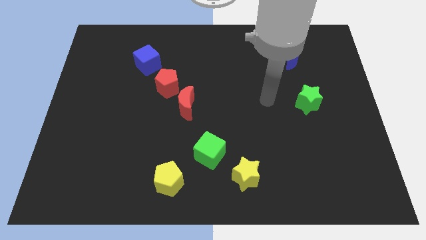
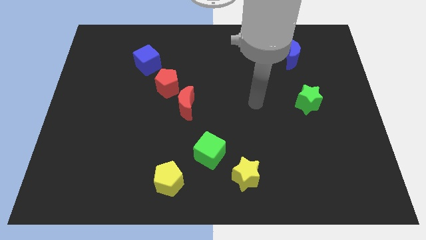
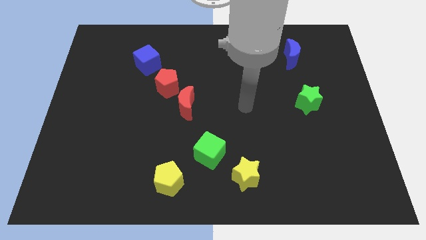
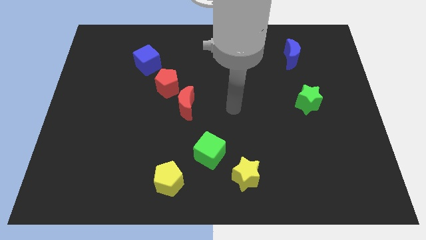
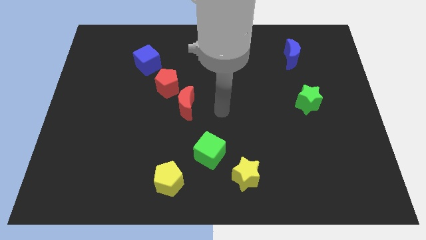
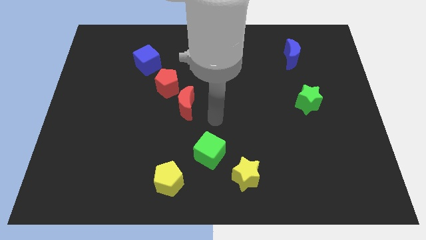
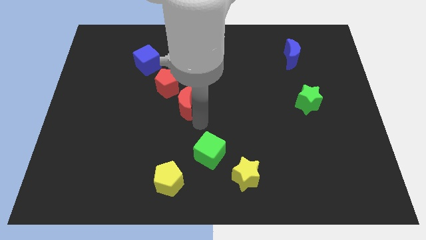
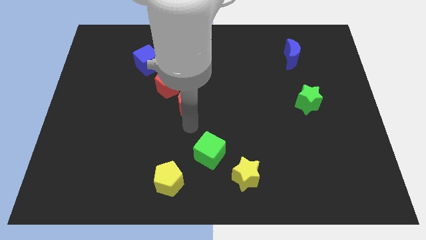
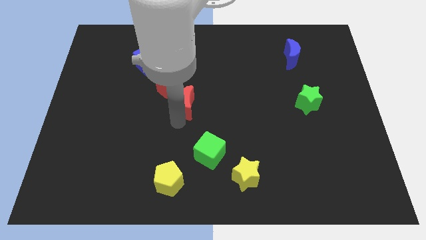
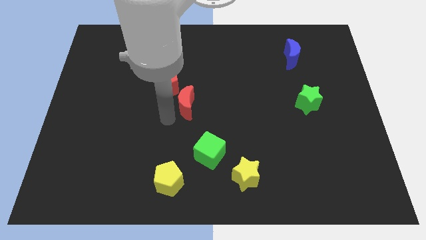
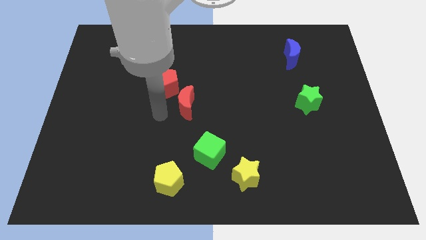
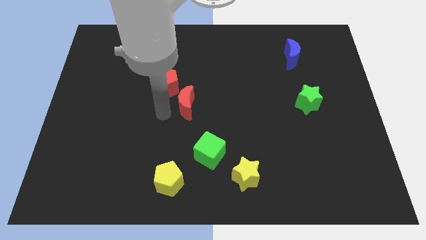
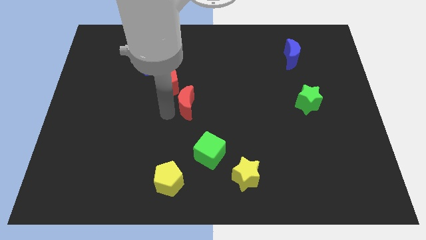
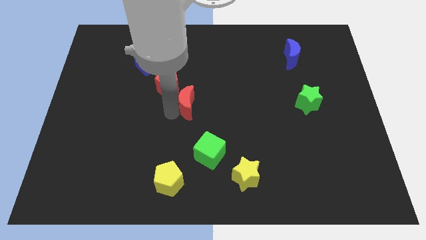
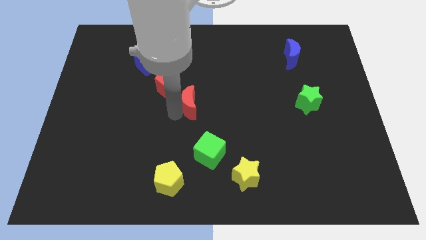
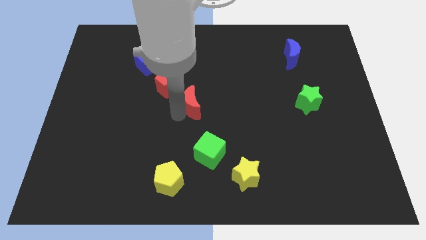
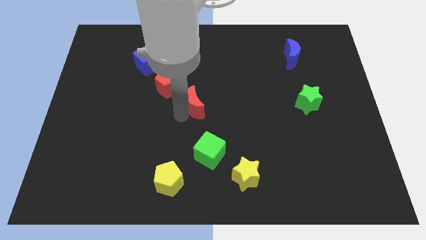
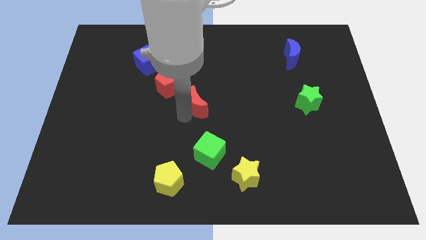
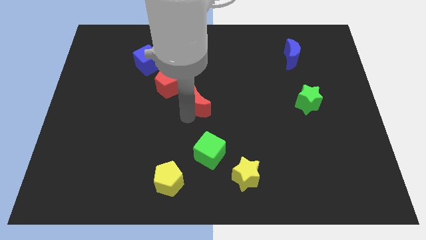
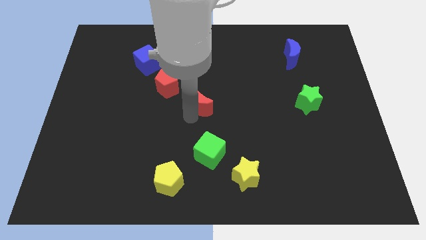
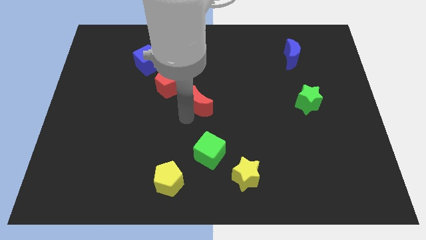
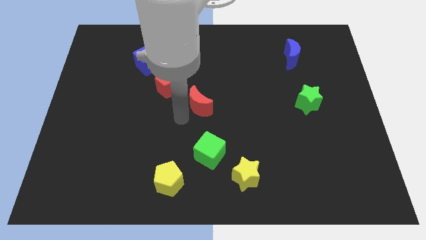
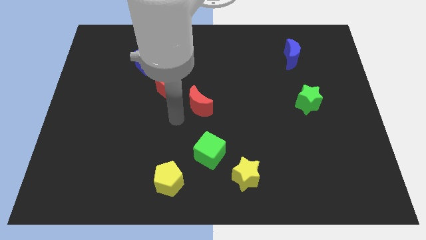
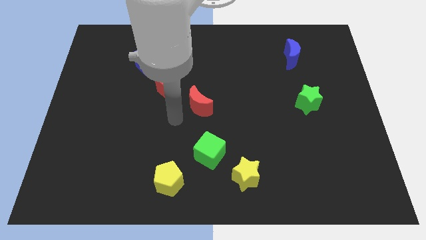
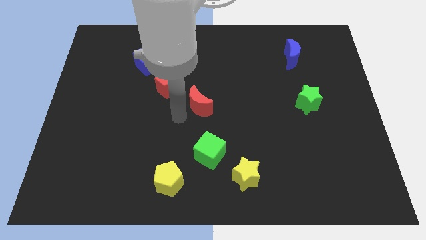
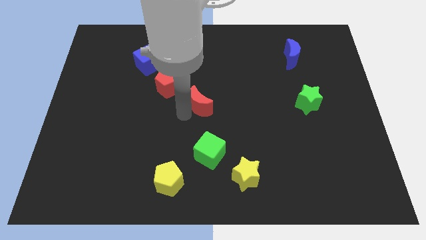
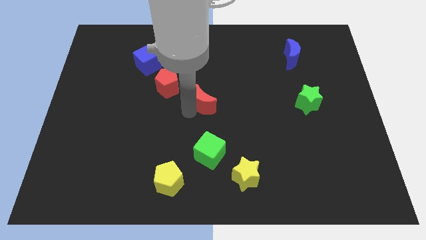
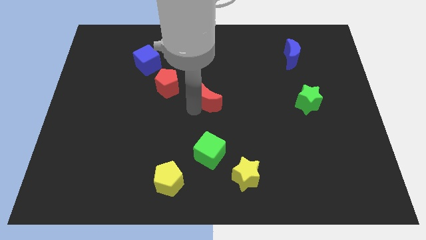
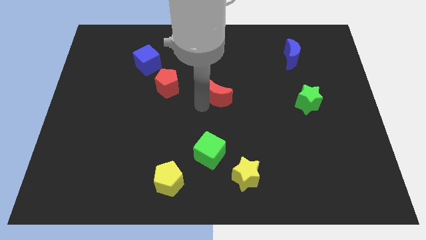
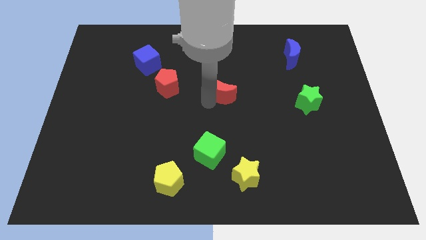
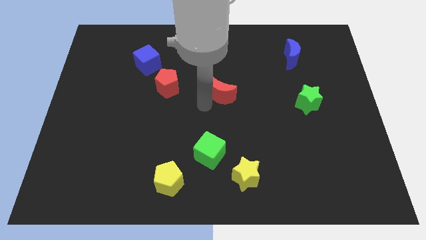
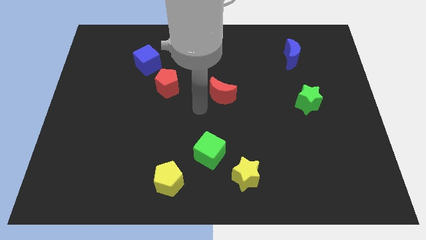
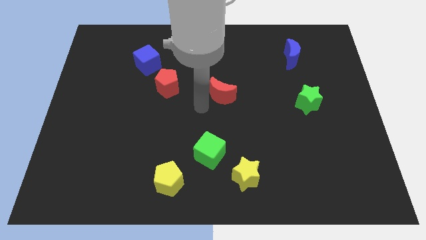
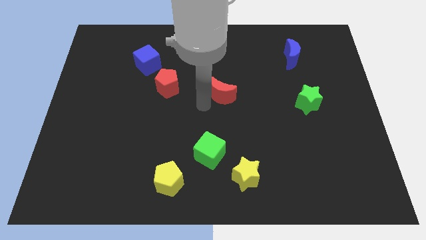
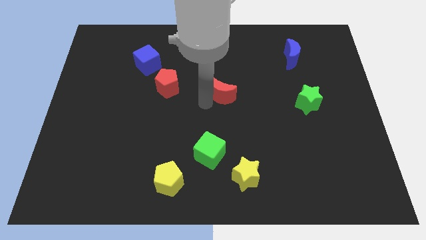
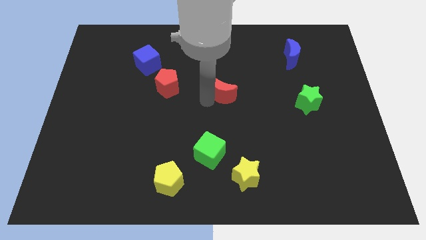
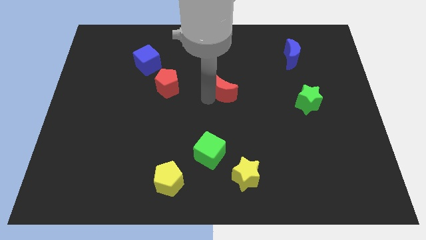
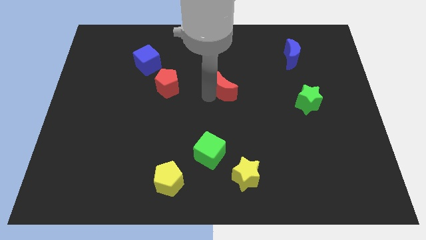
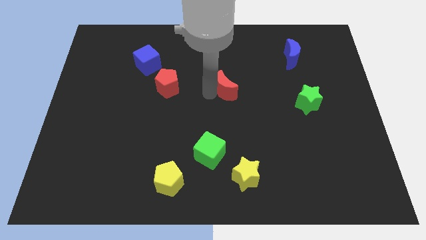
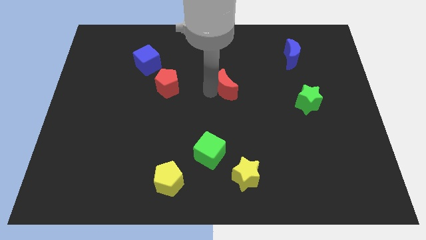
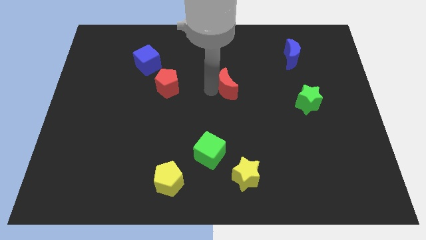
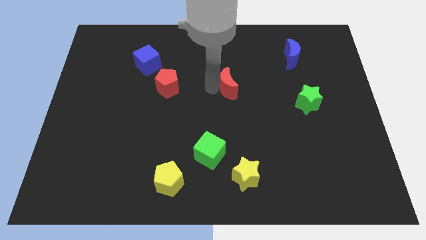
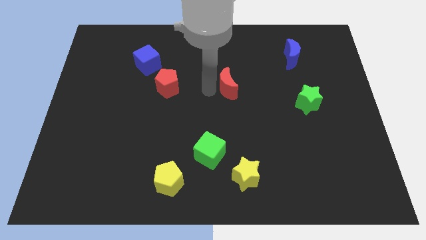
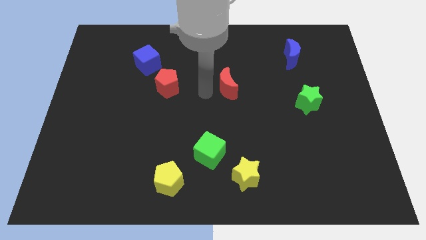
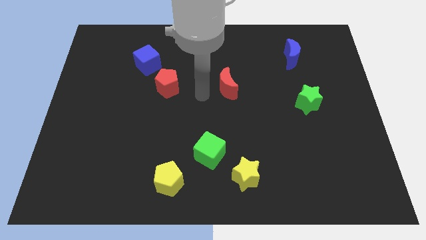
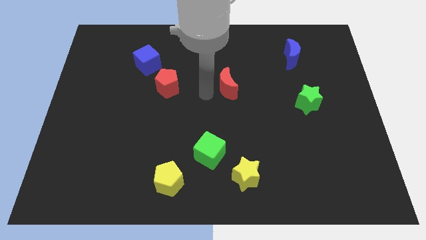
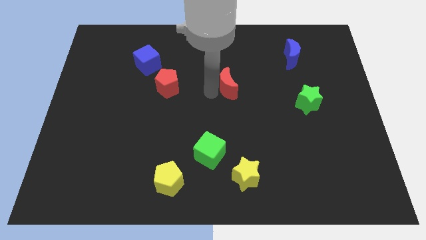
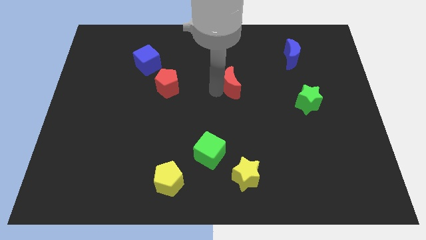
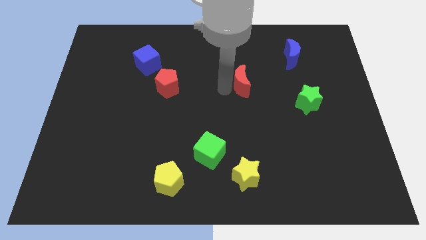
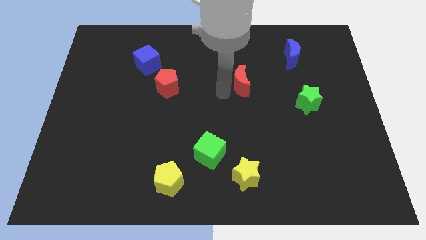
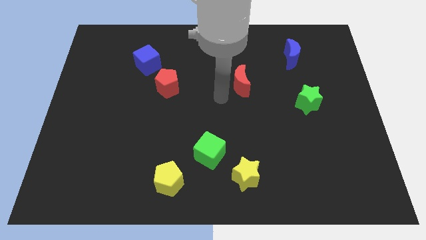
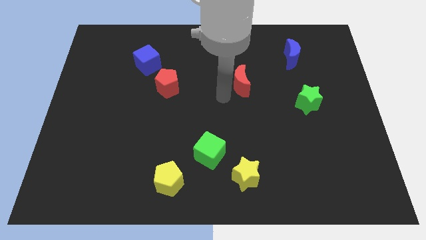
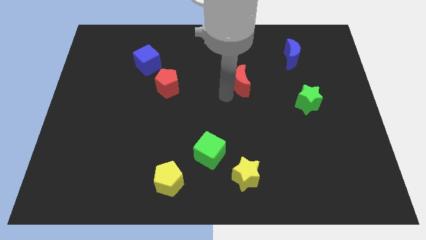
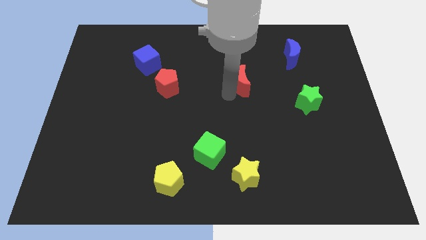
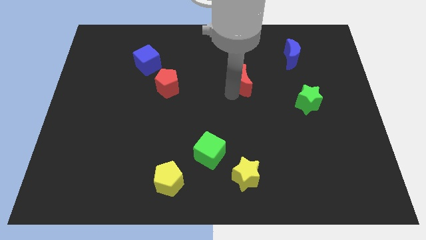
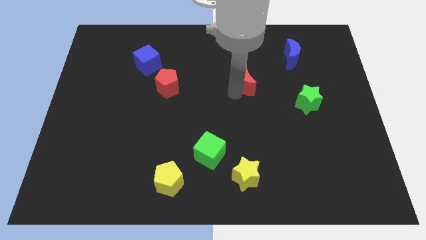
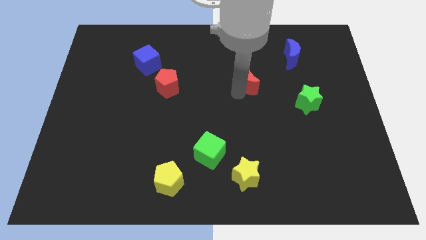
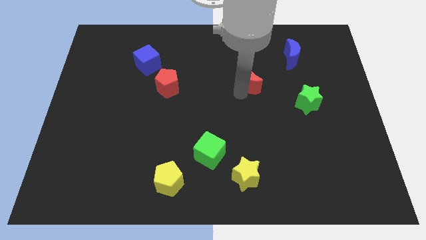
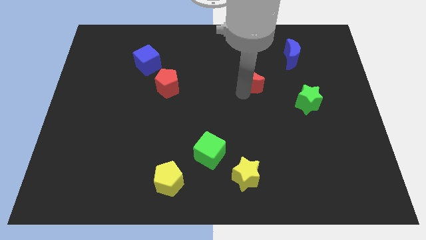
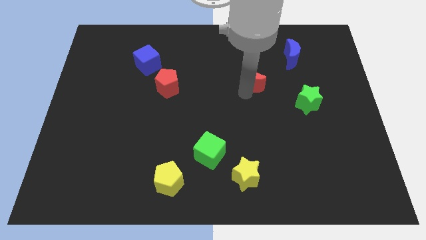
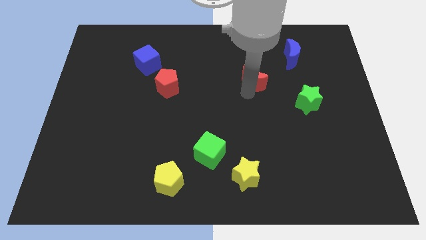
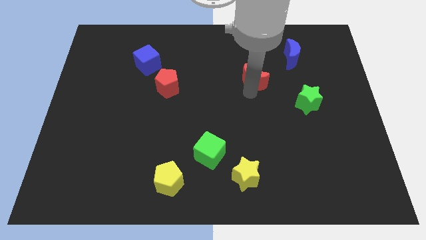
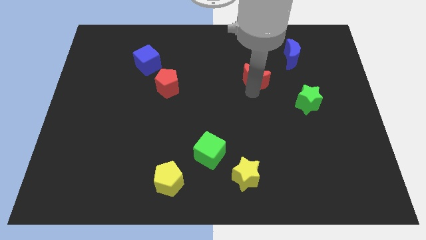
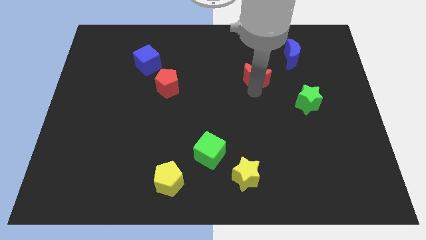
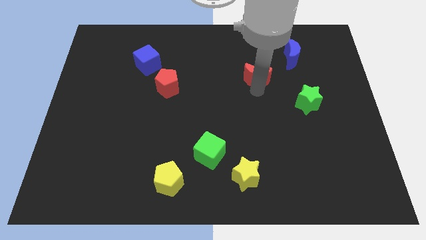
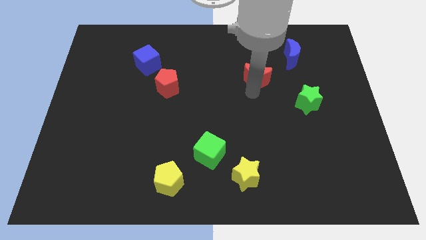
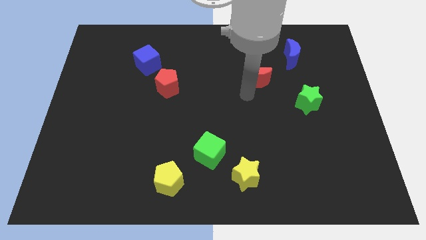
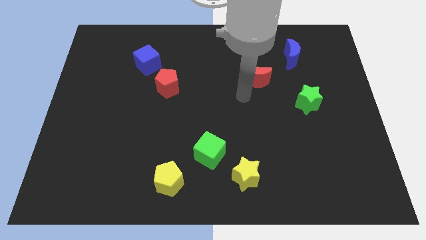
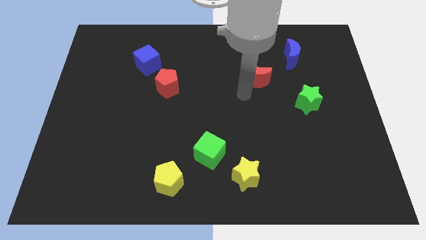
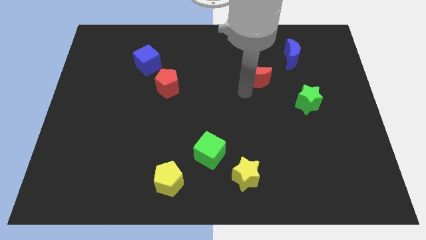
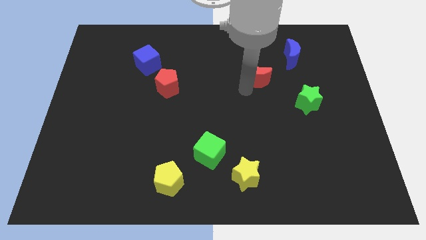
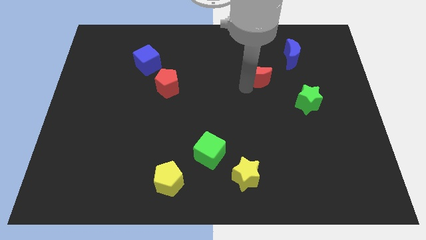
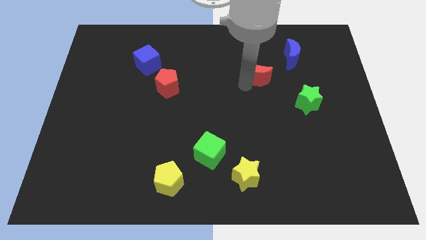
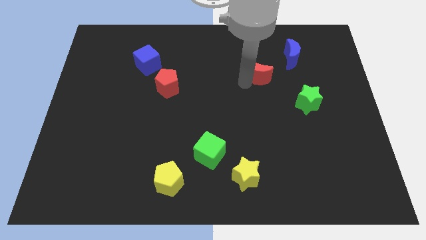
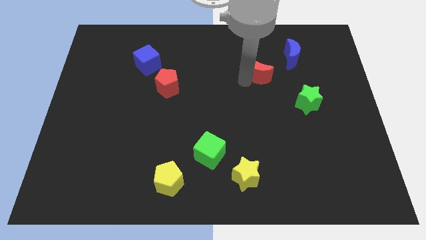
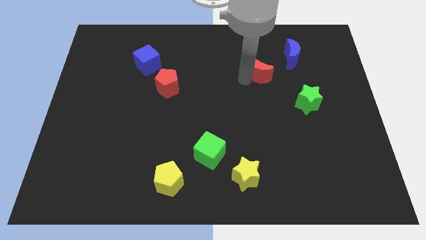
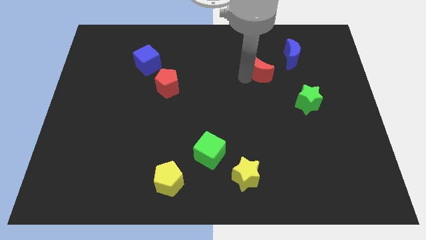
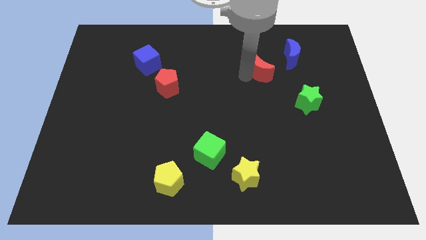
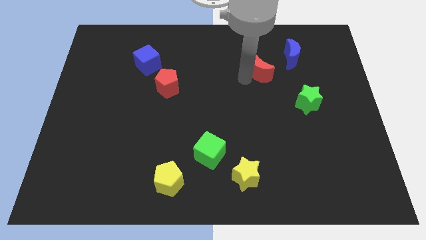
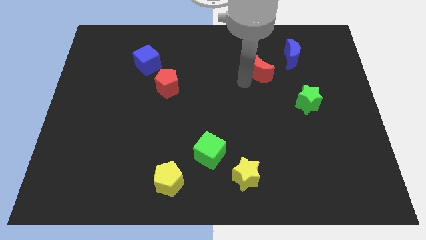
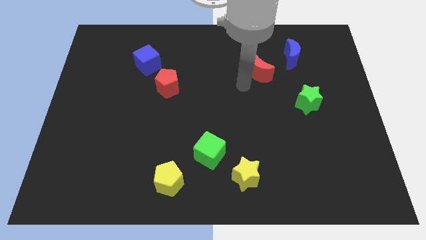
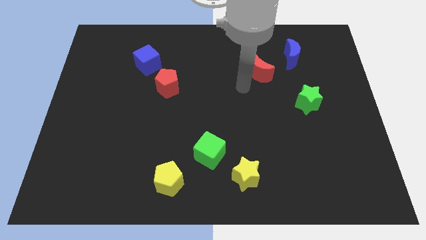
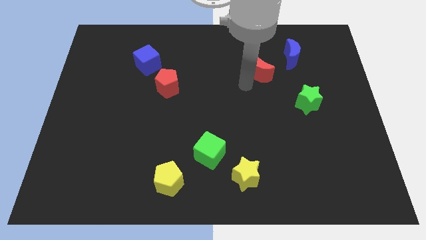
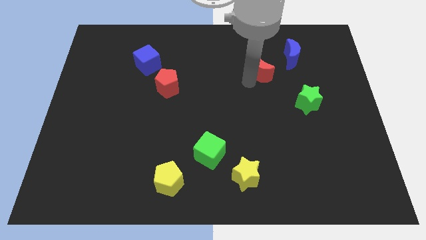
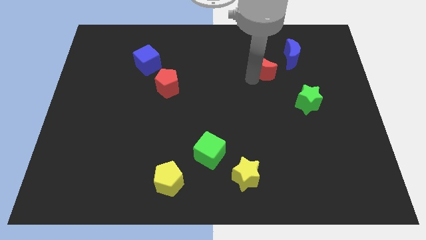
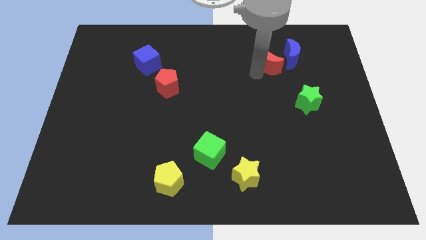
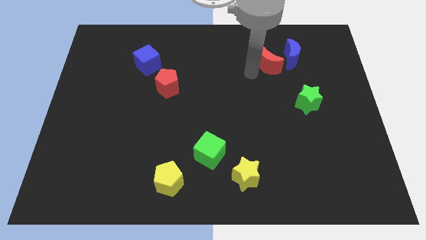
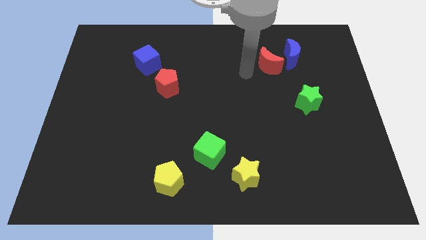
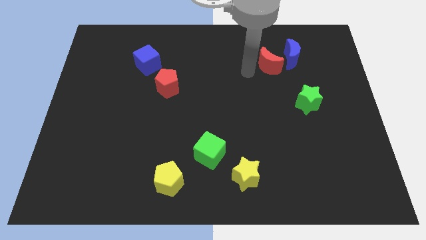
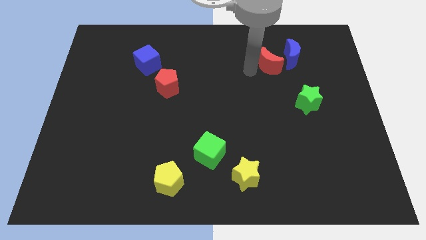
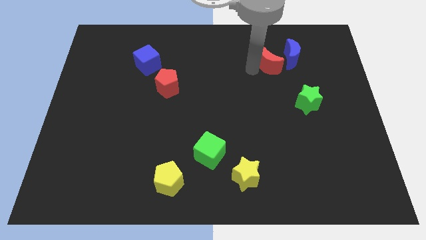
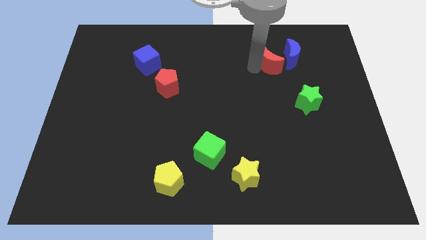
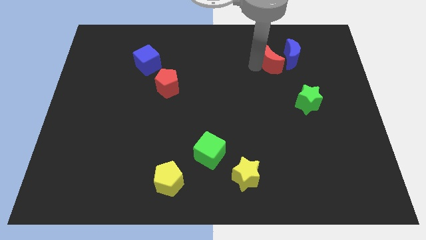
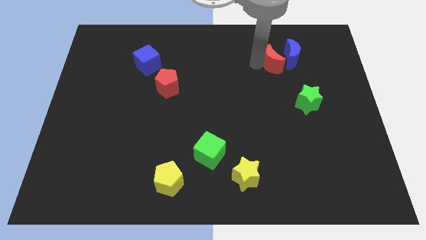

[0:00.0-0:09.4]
push the red moon next to the blue moon
